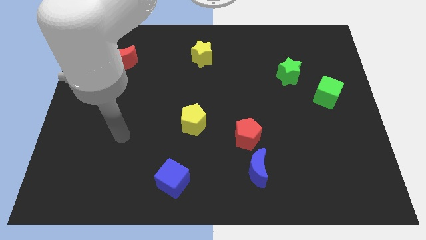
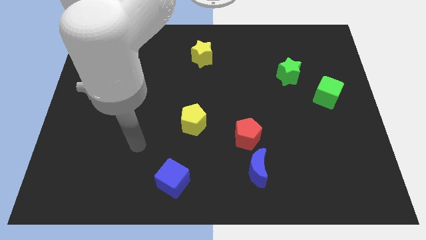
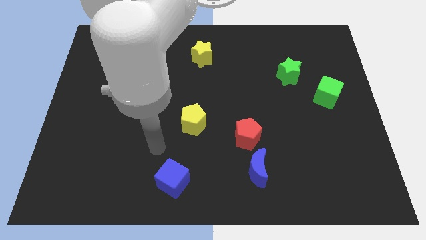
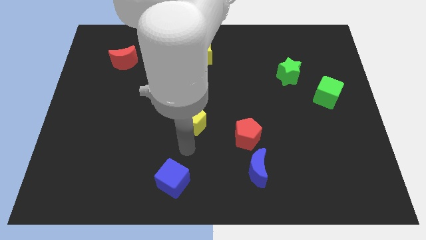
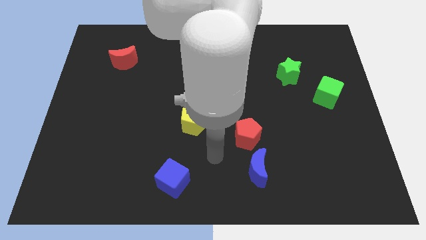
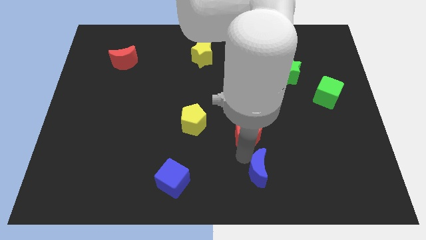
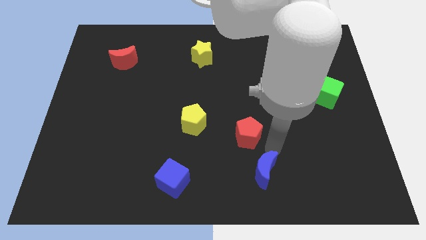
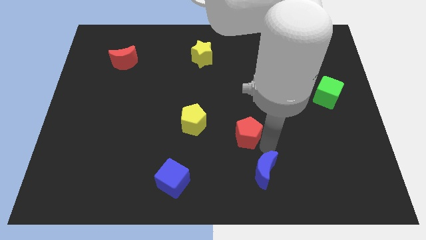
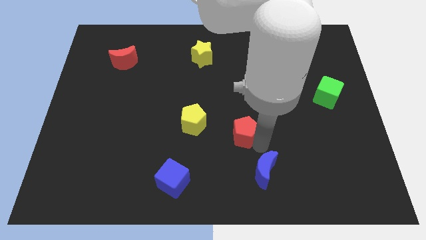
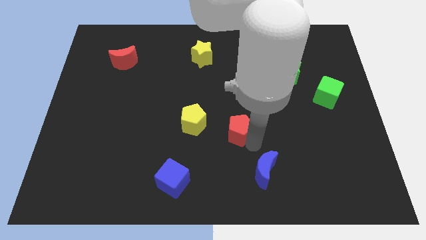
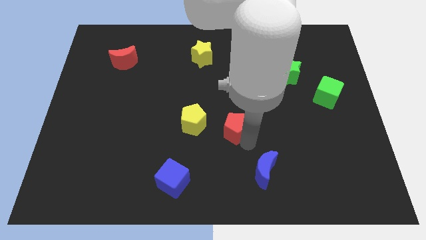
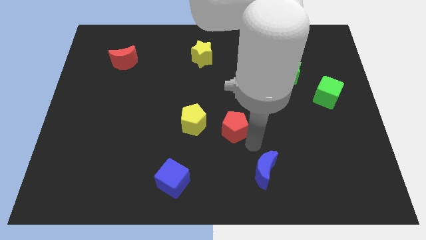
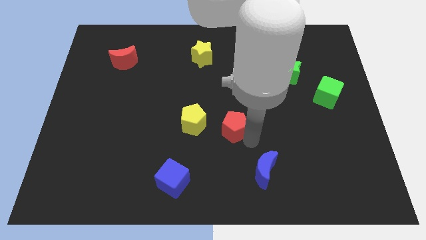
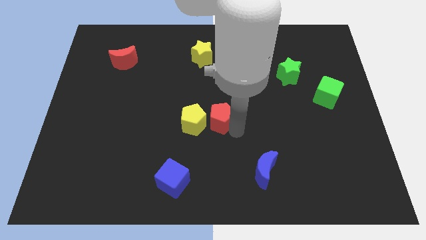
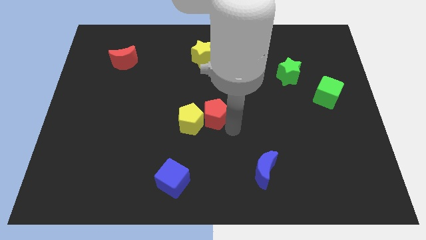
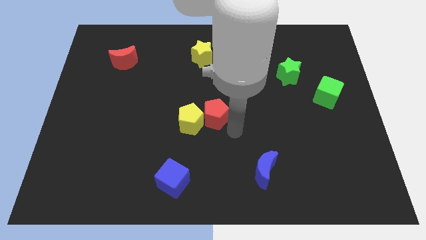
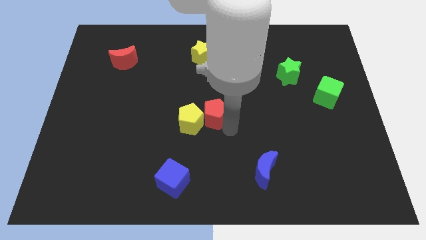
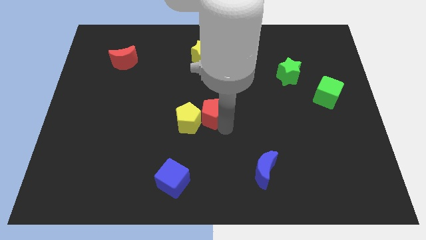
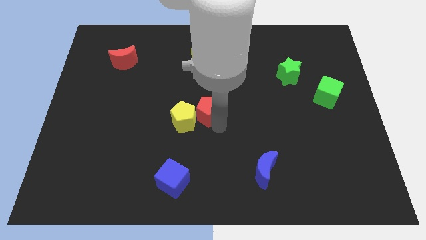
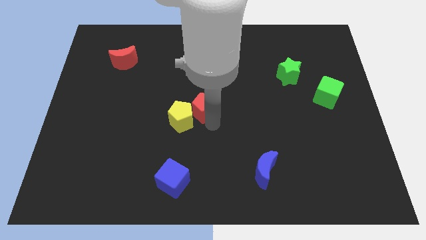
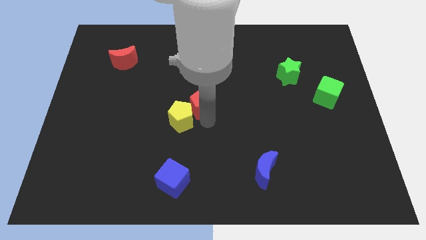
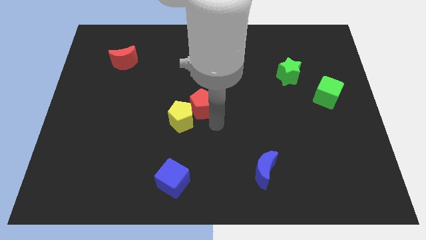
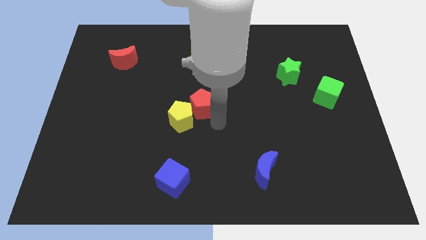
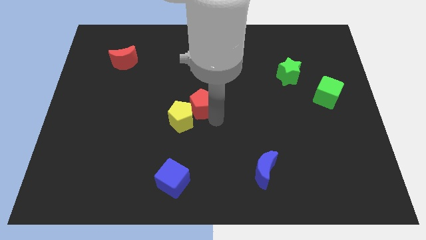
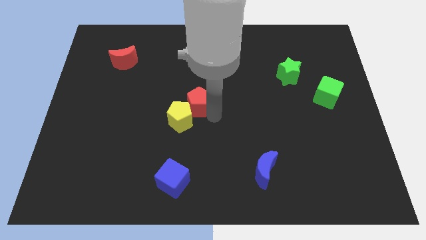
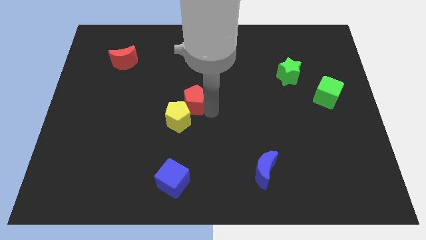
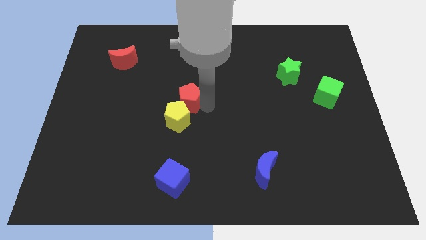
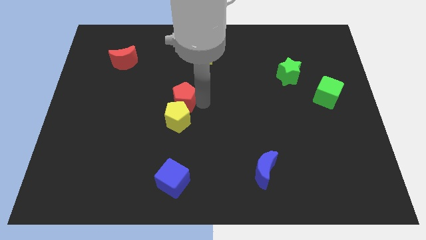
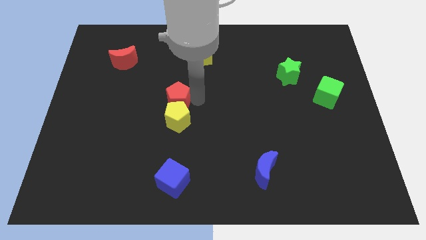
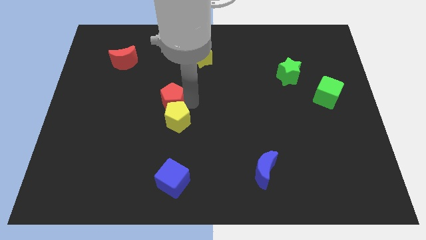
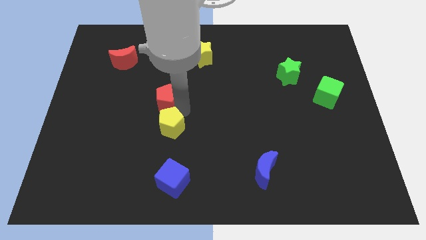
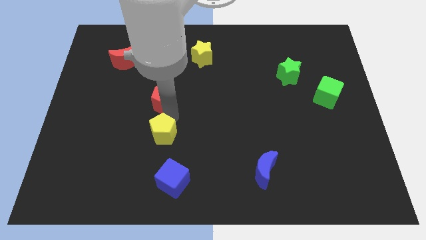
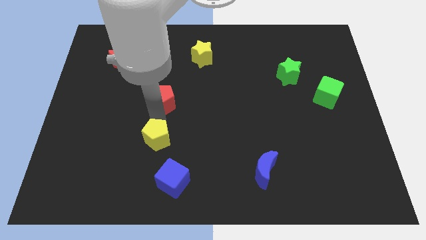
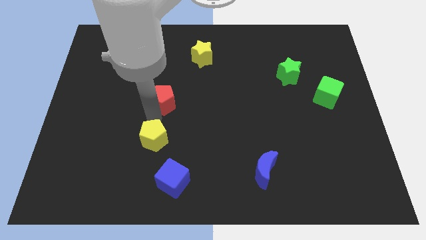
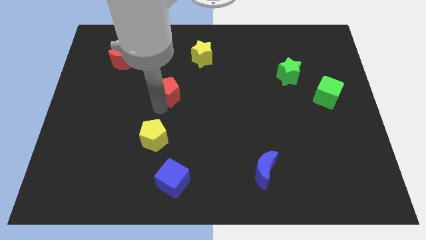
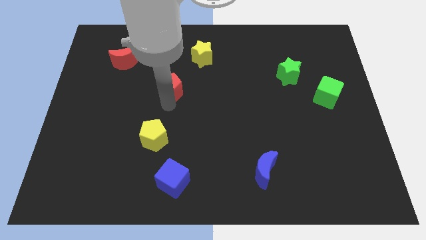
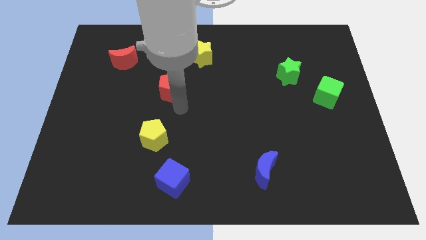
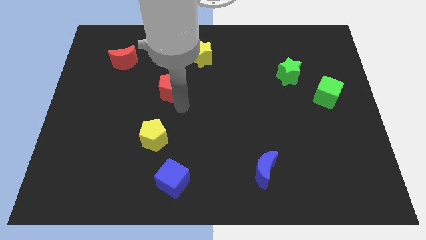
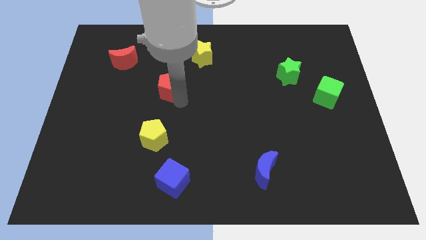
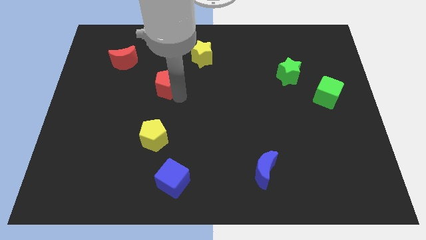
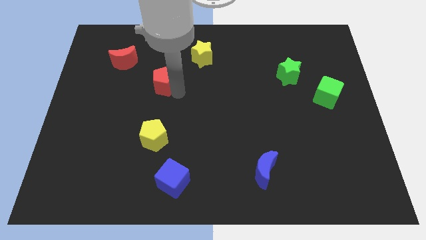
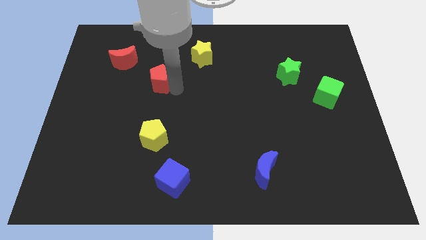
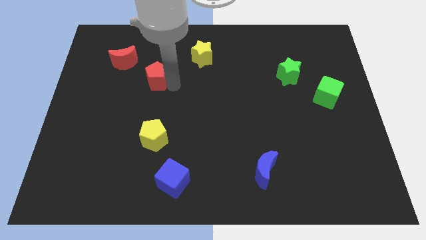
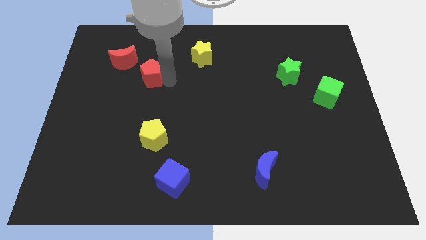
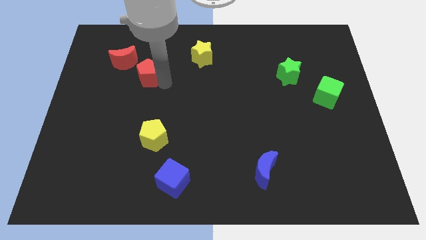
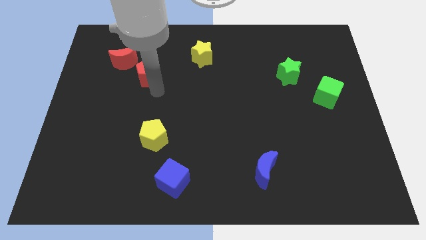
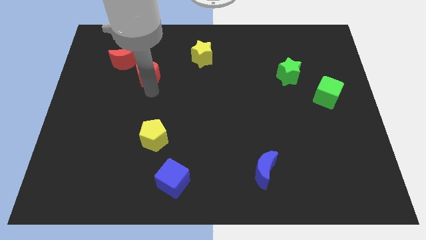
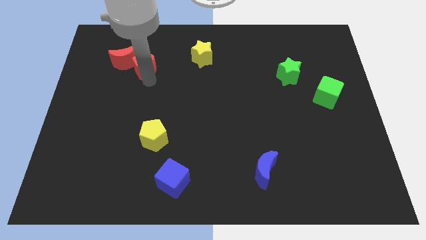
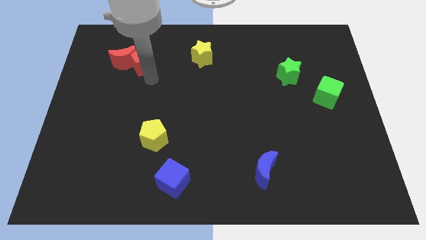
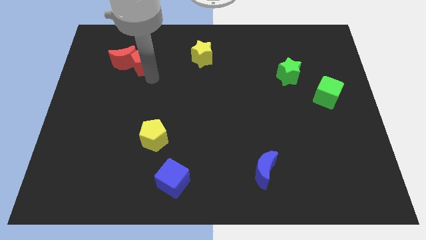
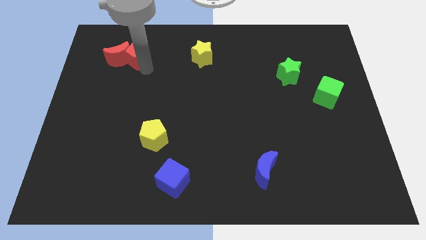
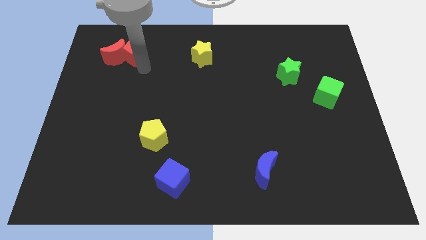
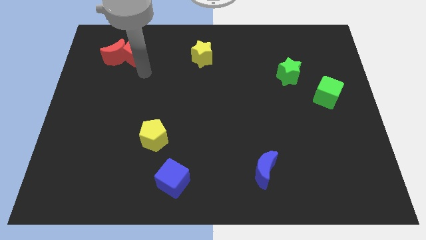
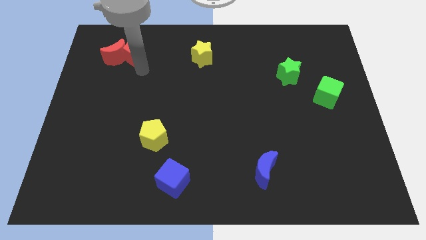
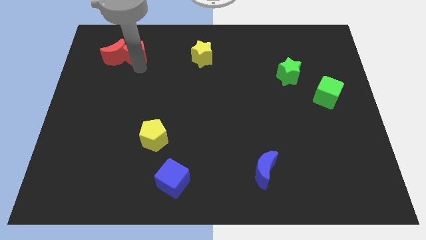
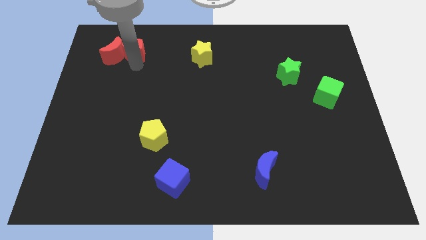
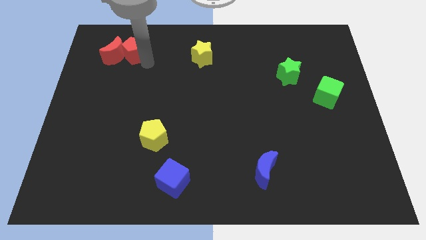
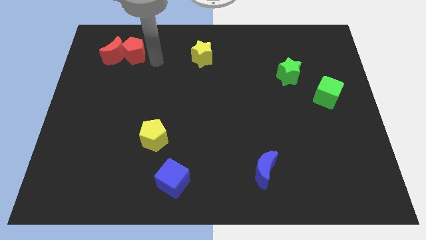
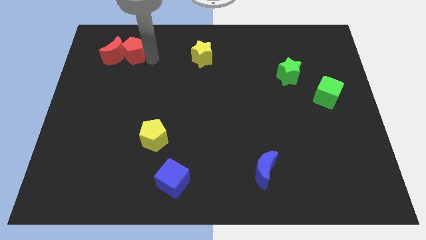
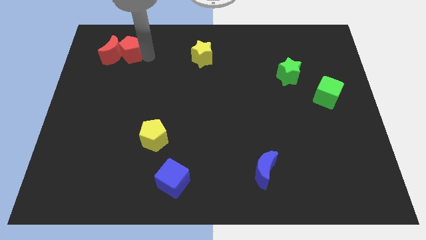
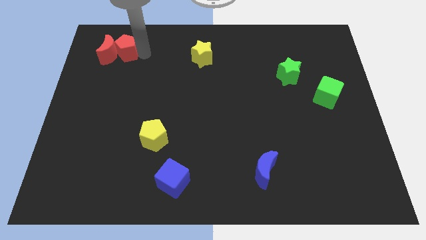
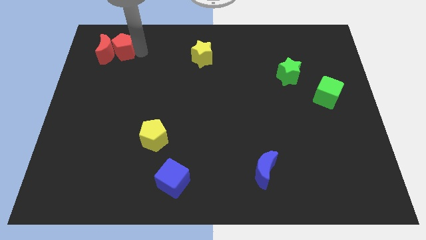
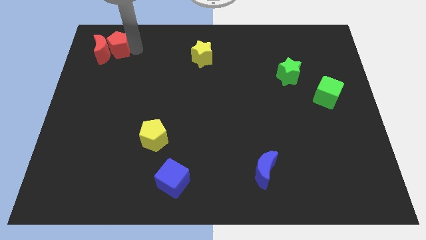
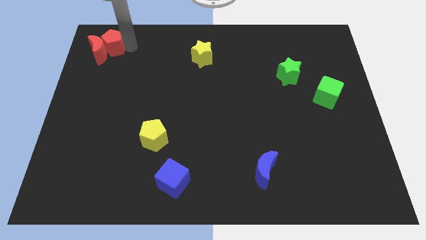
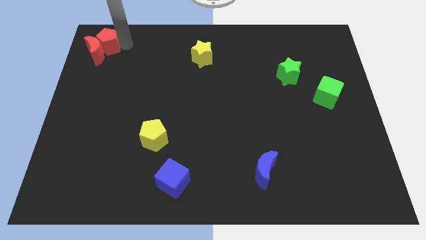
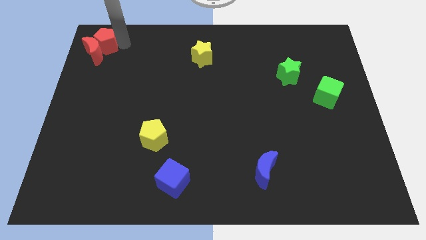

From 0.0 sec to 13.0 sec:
slide the red pentagon to the top left of the board
